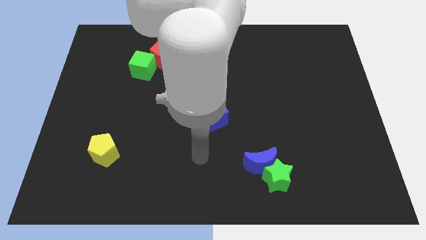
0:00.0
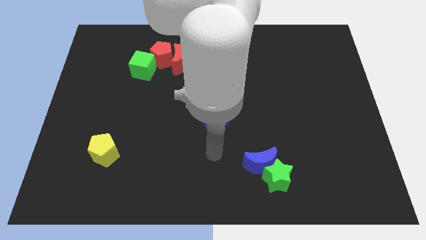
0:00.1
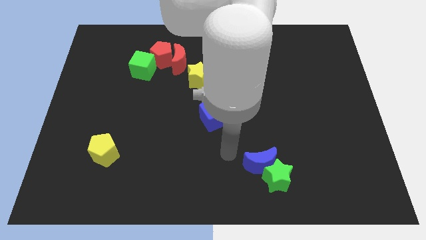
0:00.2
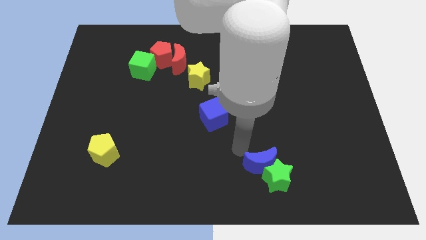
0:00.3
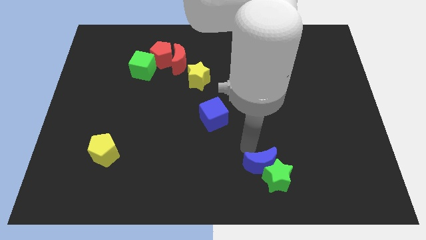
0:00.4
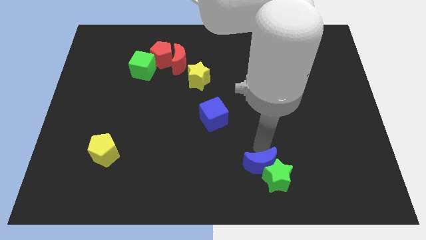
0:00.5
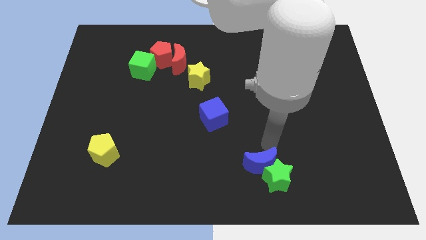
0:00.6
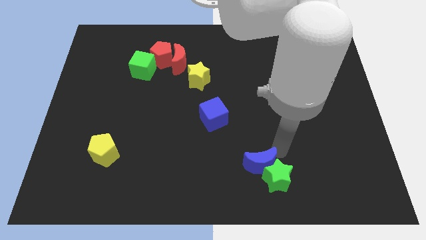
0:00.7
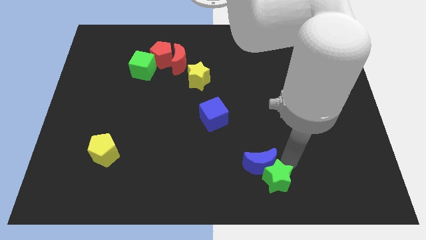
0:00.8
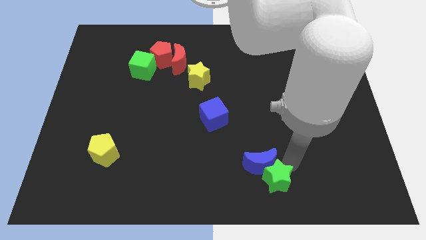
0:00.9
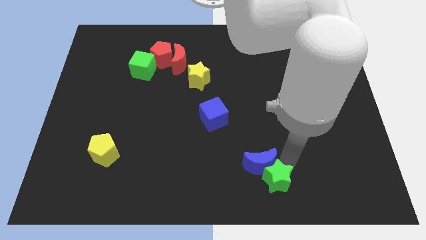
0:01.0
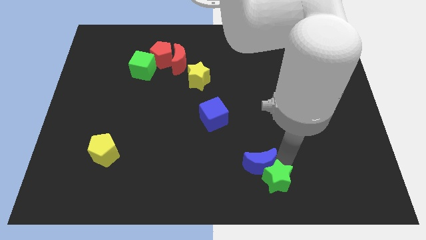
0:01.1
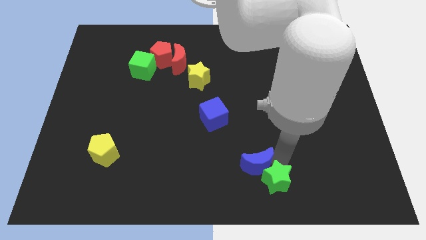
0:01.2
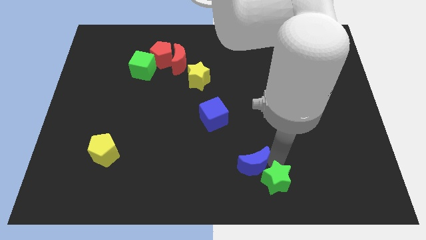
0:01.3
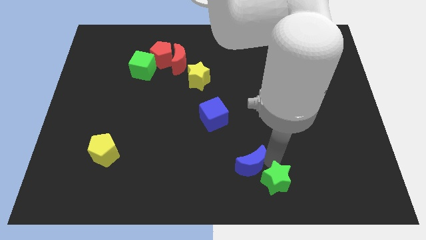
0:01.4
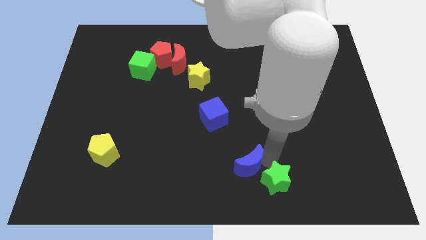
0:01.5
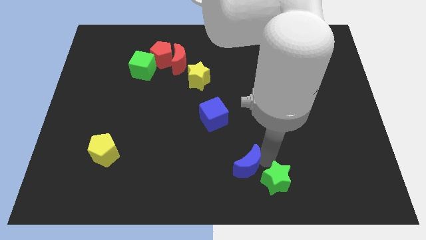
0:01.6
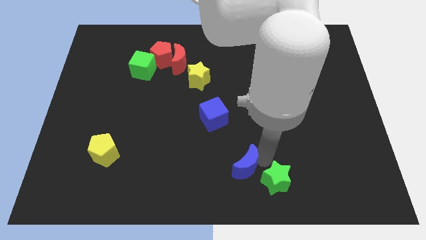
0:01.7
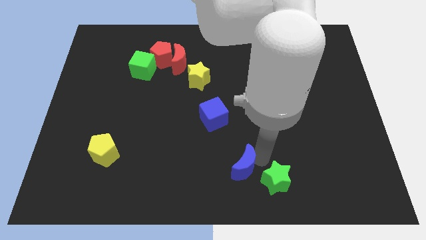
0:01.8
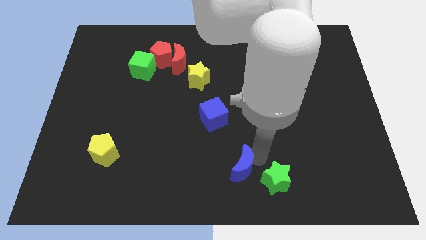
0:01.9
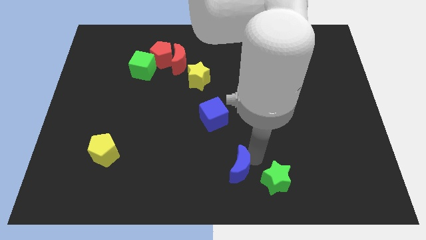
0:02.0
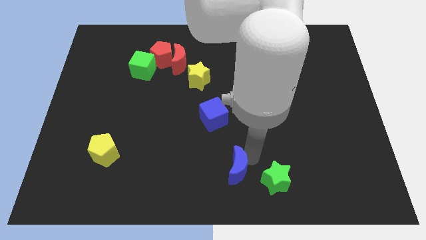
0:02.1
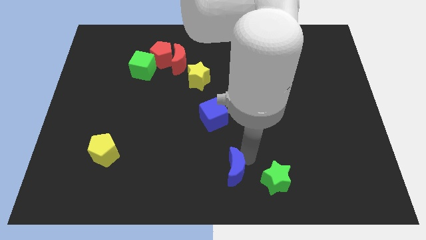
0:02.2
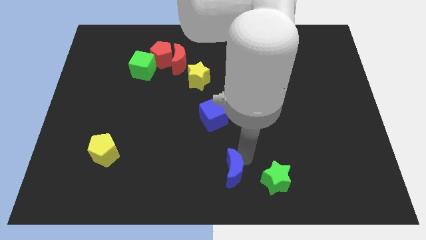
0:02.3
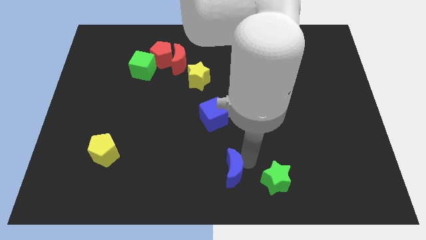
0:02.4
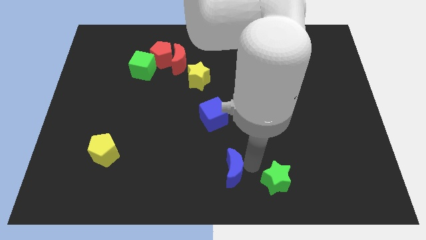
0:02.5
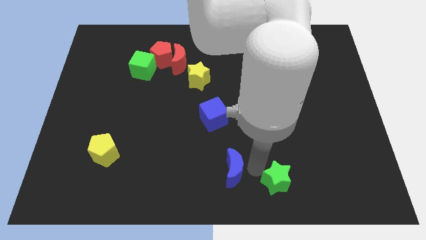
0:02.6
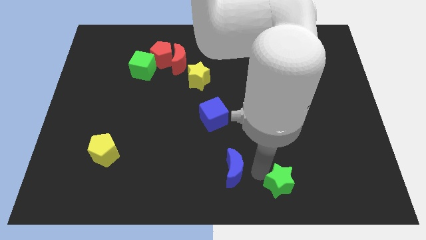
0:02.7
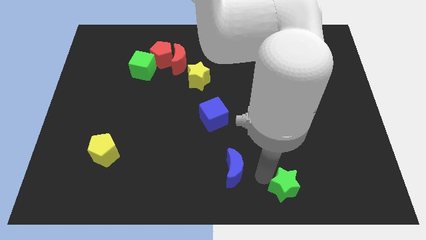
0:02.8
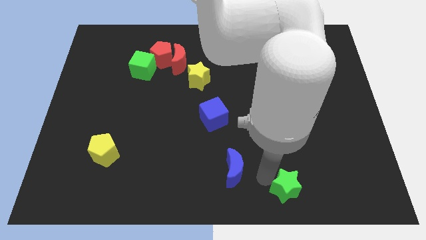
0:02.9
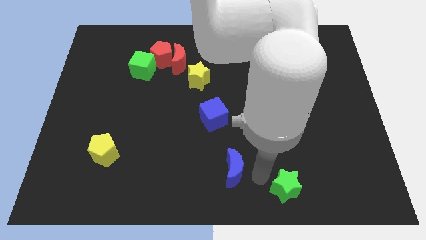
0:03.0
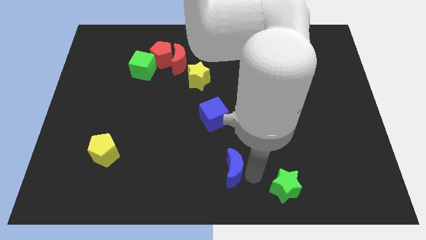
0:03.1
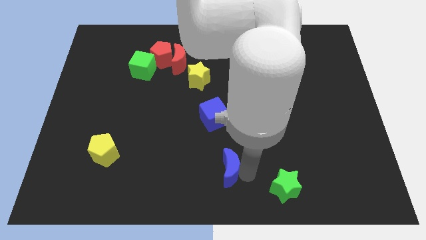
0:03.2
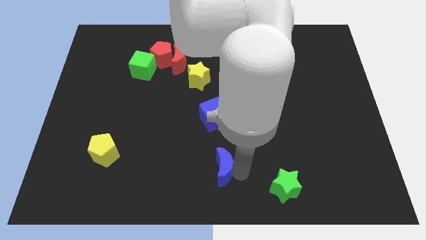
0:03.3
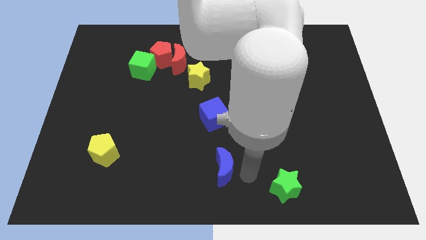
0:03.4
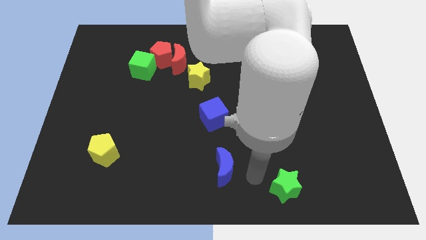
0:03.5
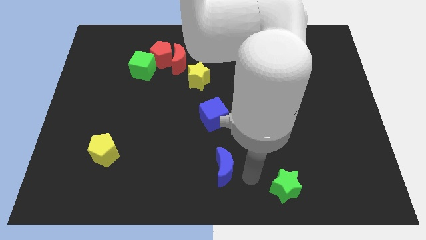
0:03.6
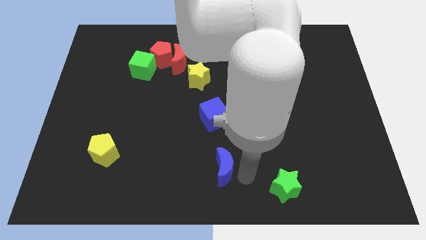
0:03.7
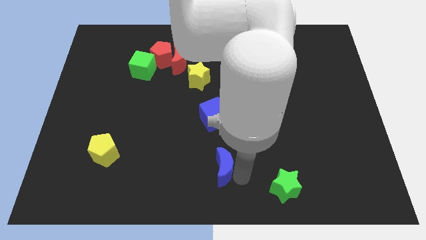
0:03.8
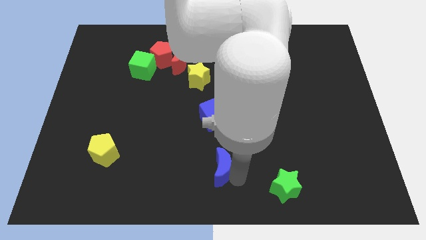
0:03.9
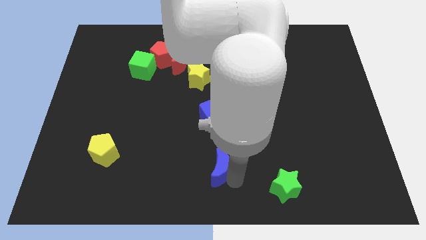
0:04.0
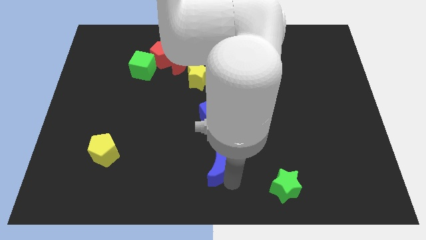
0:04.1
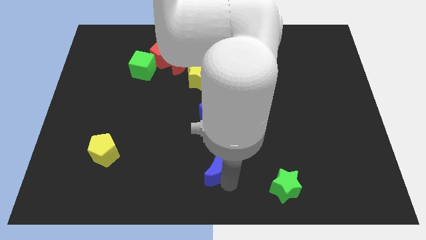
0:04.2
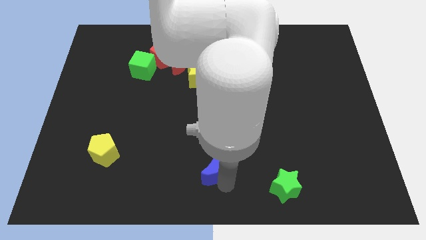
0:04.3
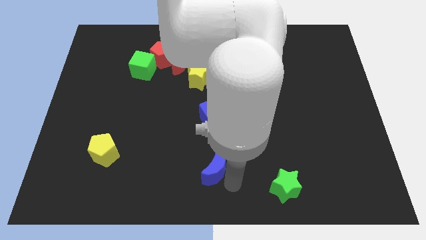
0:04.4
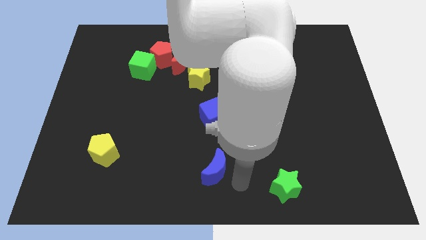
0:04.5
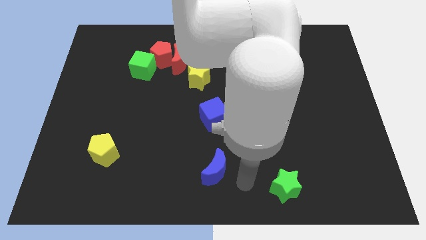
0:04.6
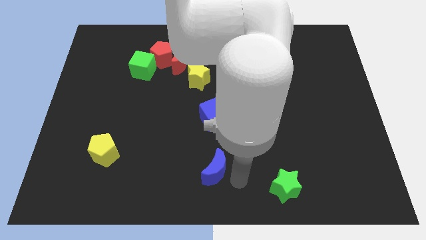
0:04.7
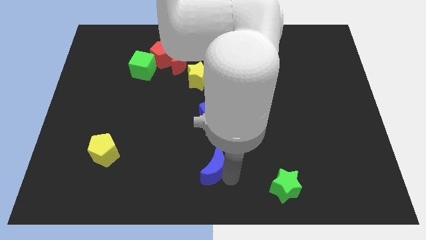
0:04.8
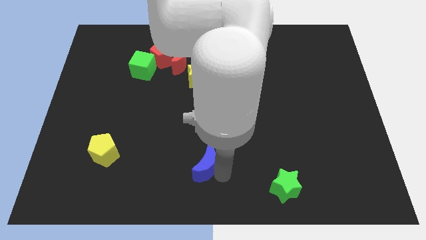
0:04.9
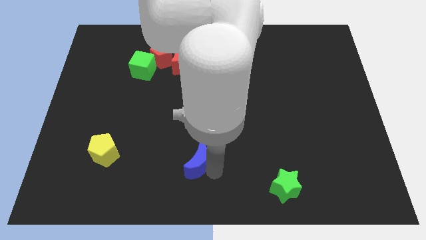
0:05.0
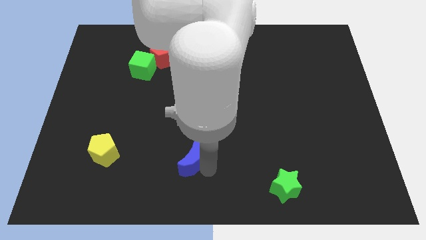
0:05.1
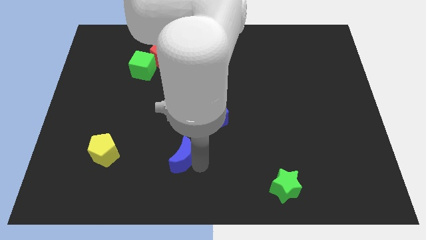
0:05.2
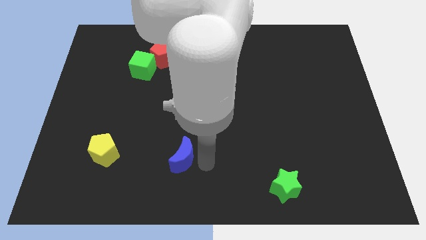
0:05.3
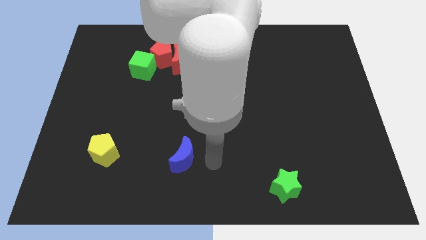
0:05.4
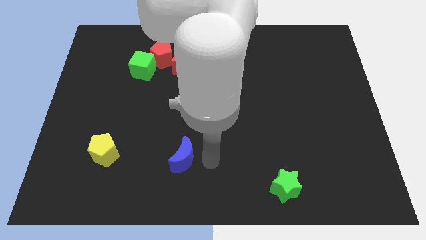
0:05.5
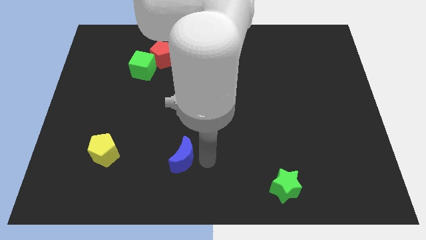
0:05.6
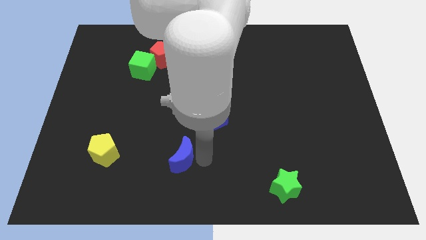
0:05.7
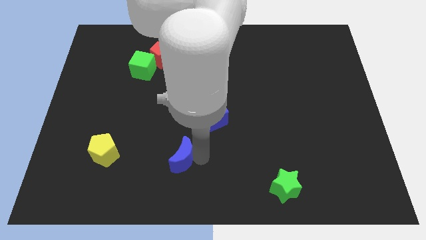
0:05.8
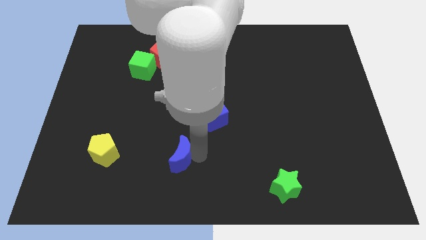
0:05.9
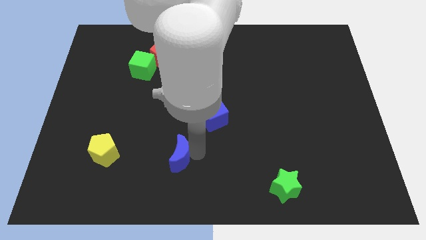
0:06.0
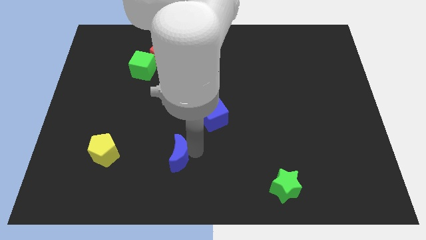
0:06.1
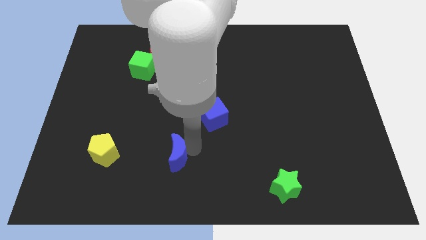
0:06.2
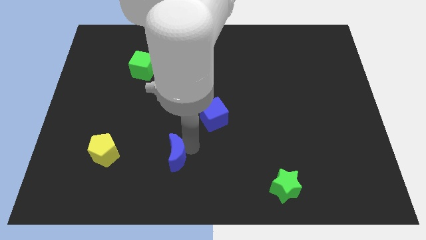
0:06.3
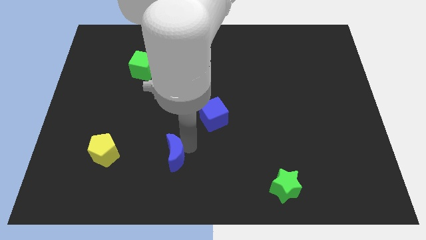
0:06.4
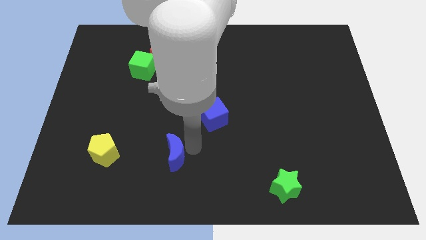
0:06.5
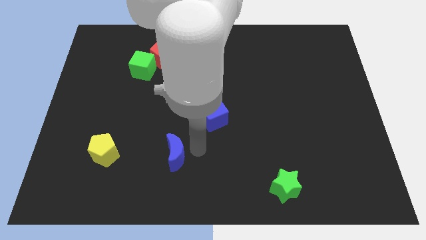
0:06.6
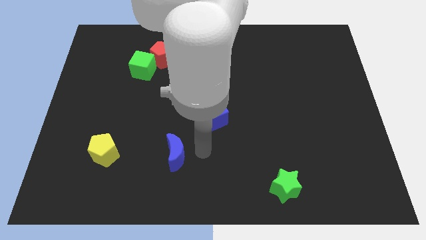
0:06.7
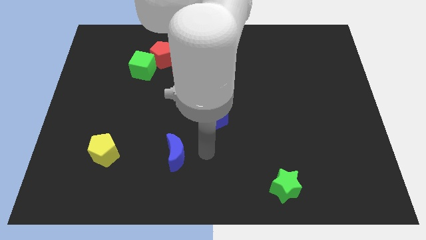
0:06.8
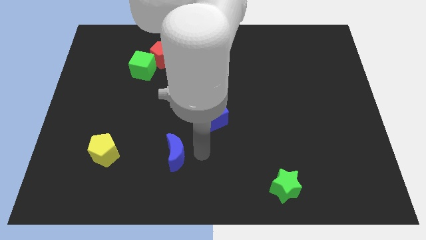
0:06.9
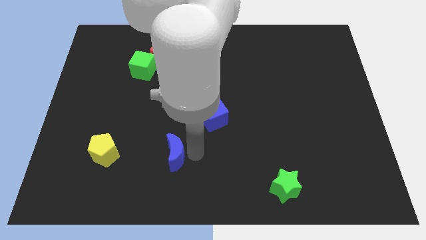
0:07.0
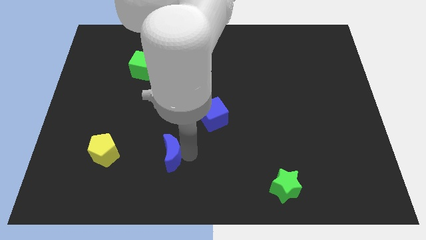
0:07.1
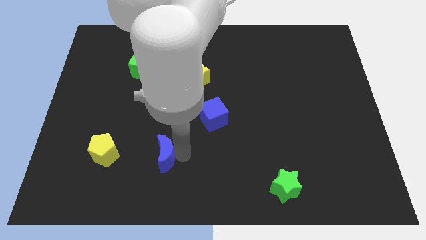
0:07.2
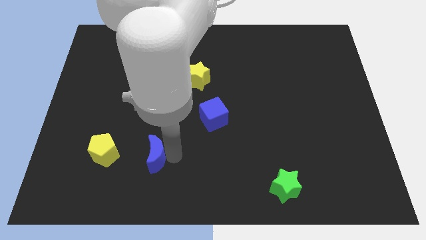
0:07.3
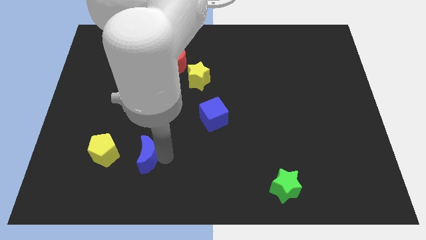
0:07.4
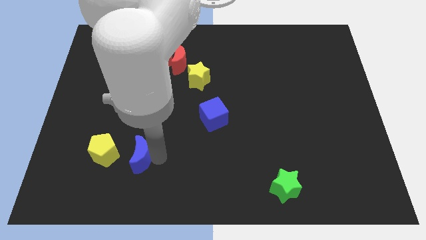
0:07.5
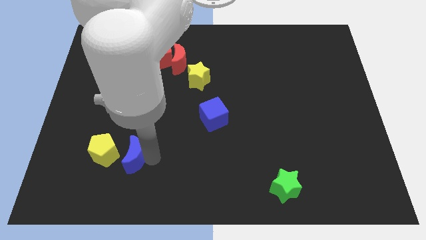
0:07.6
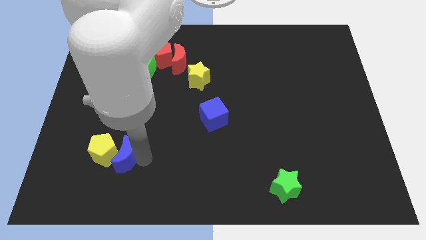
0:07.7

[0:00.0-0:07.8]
push the blue moon next to the yellow pentagon

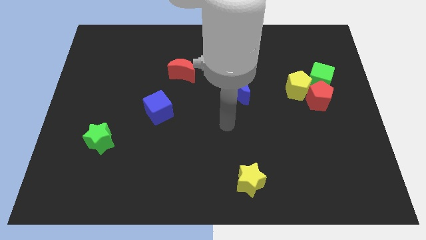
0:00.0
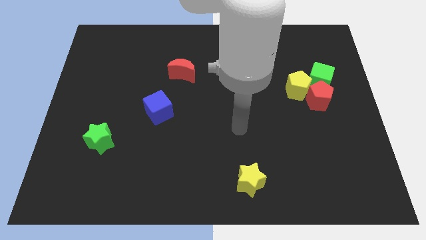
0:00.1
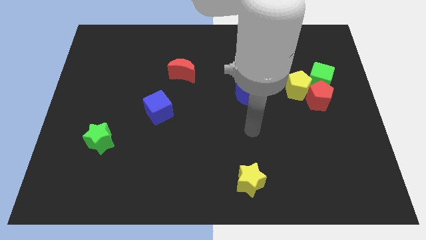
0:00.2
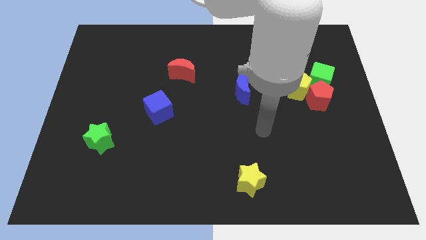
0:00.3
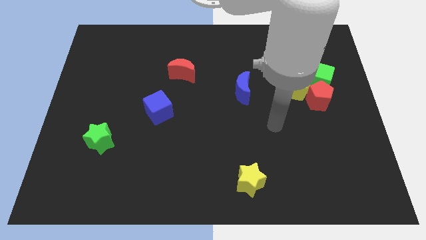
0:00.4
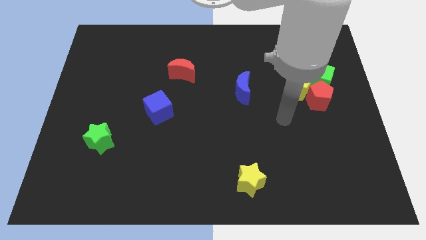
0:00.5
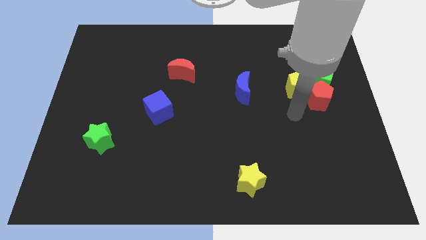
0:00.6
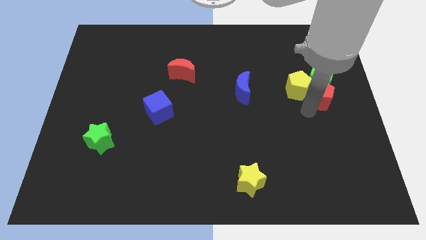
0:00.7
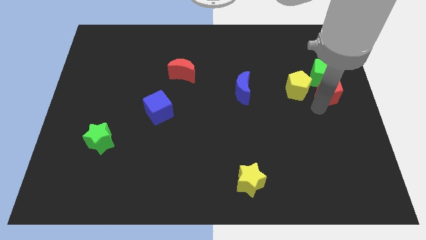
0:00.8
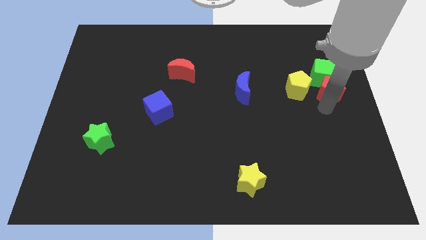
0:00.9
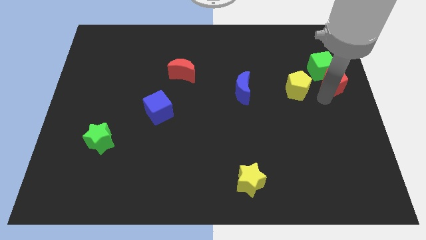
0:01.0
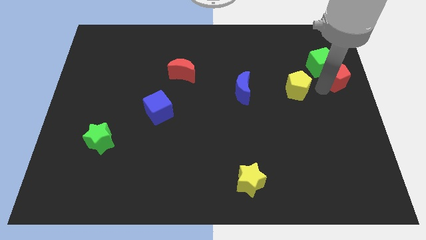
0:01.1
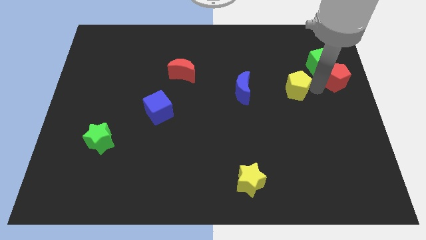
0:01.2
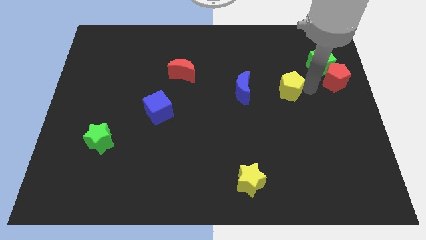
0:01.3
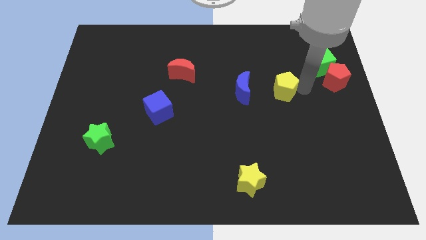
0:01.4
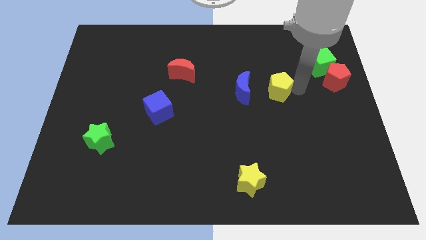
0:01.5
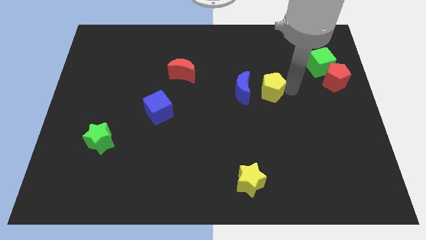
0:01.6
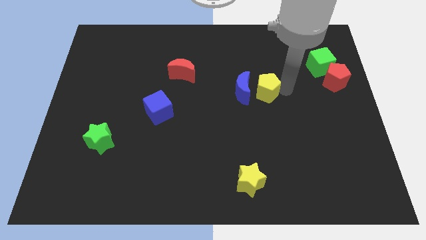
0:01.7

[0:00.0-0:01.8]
put the yellow pentagon towards the blue moon
